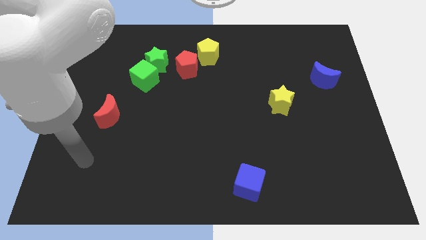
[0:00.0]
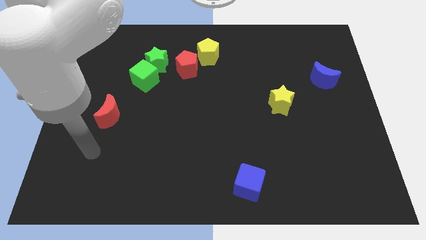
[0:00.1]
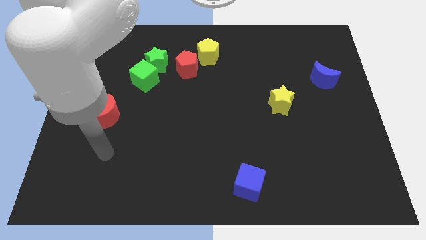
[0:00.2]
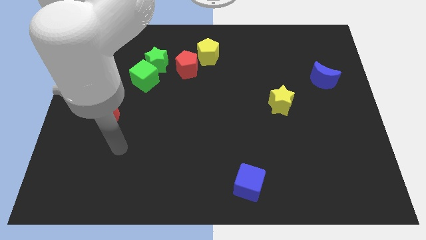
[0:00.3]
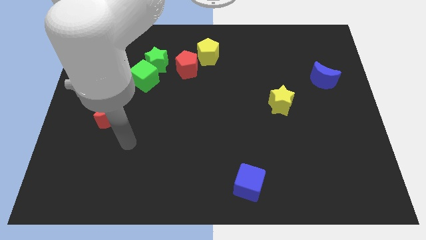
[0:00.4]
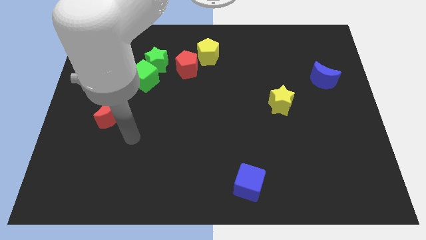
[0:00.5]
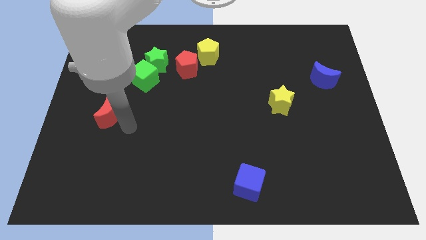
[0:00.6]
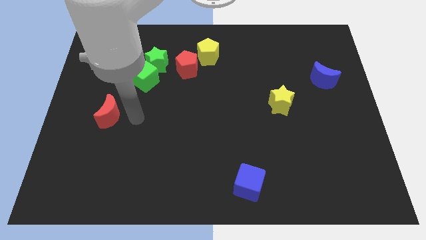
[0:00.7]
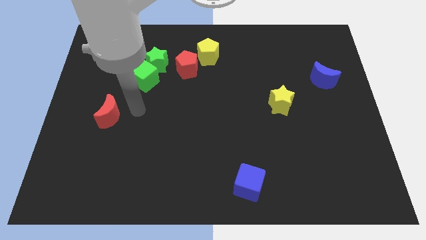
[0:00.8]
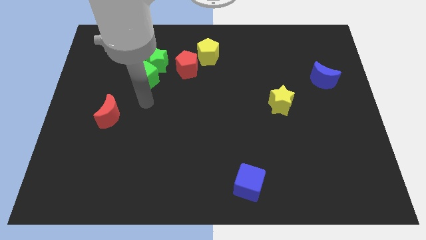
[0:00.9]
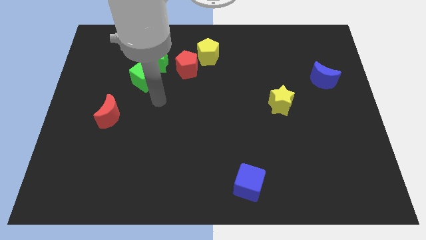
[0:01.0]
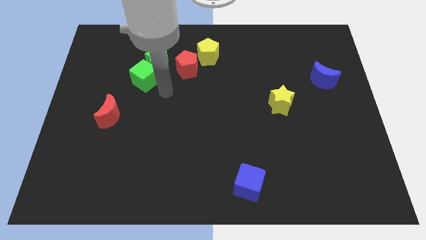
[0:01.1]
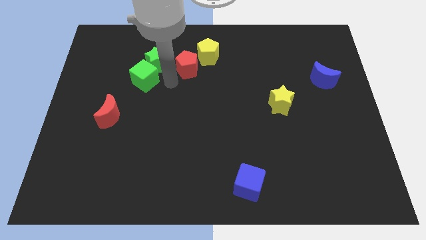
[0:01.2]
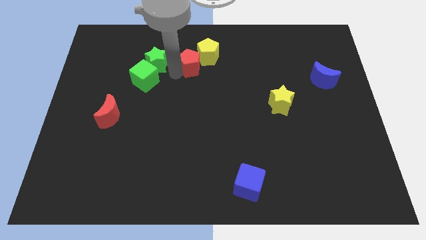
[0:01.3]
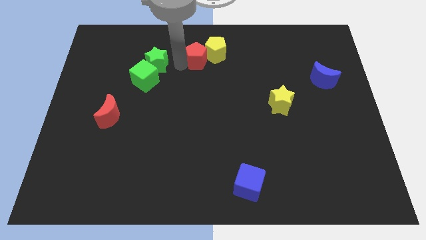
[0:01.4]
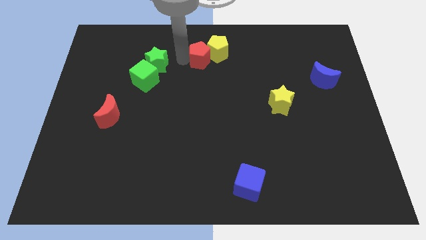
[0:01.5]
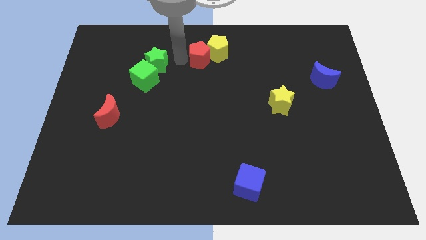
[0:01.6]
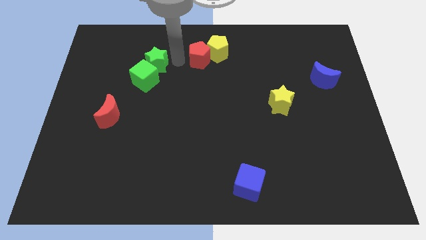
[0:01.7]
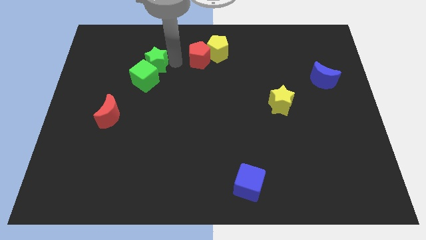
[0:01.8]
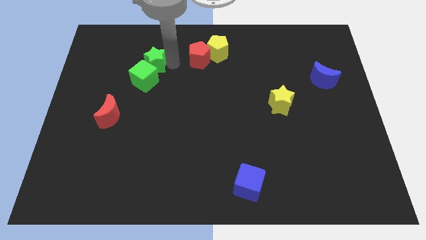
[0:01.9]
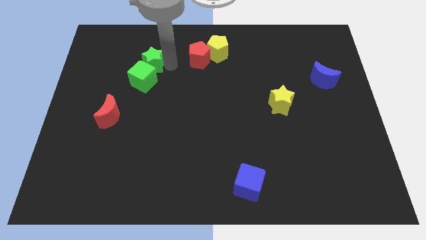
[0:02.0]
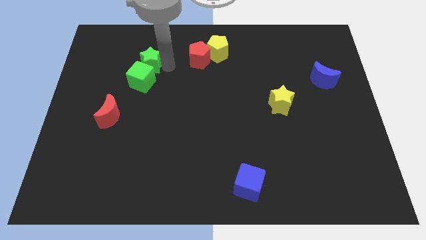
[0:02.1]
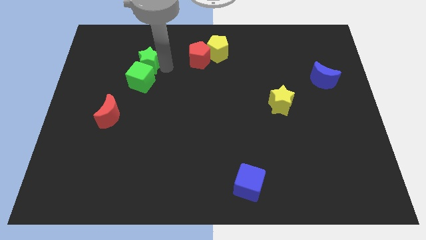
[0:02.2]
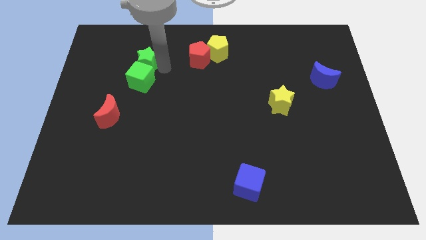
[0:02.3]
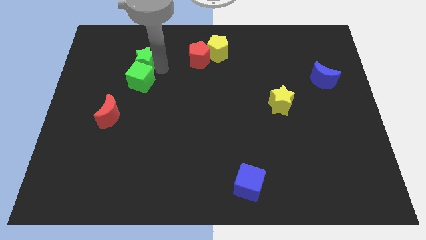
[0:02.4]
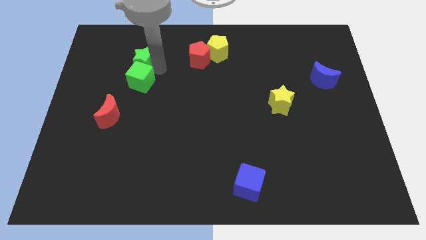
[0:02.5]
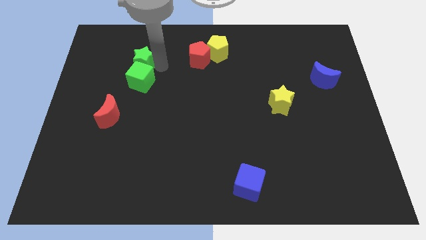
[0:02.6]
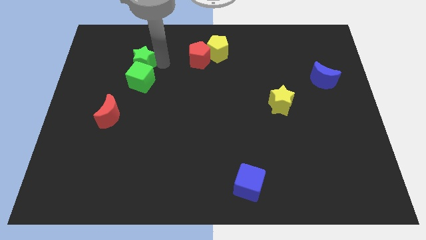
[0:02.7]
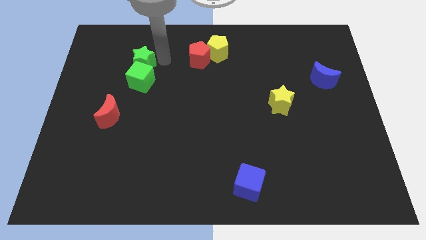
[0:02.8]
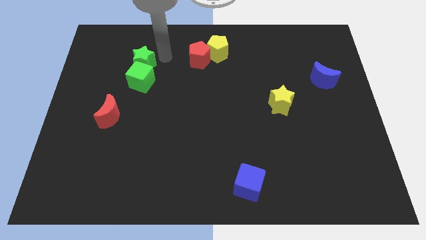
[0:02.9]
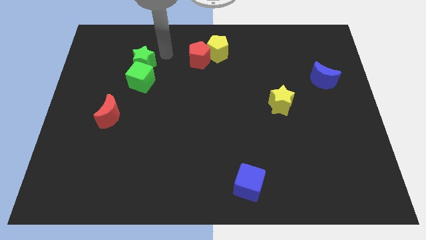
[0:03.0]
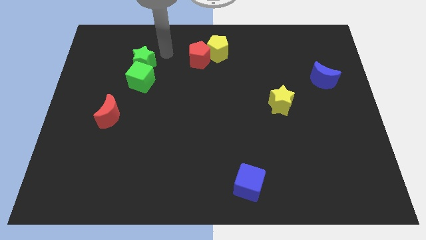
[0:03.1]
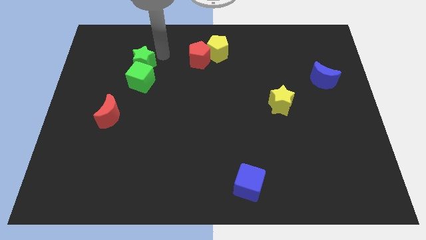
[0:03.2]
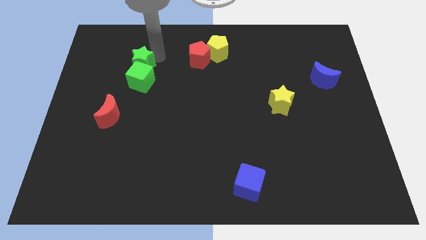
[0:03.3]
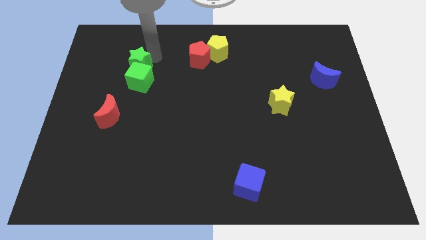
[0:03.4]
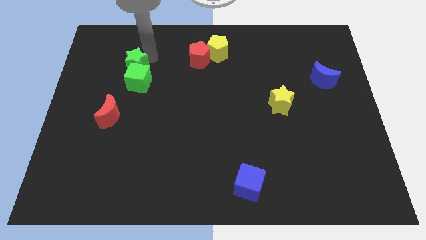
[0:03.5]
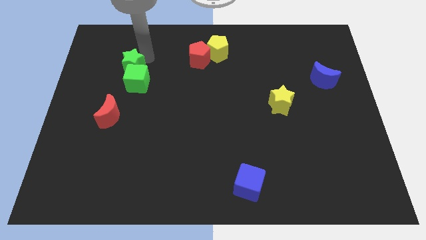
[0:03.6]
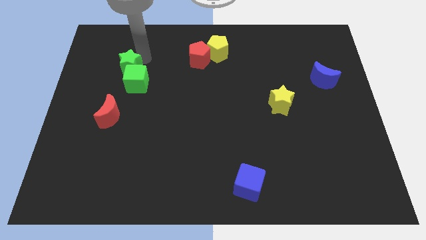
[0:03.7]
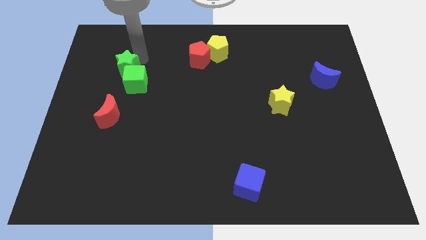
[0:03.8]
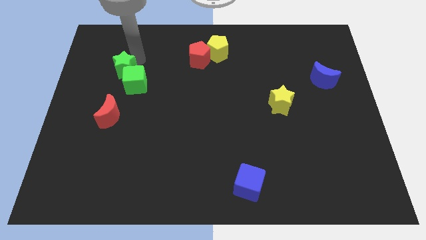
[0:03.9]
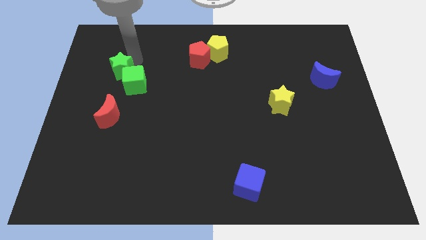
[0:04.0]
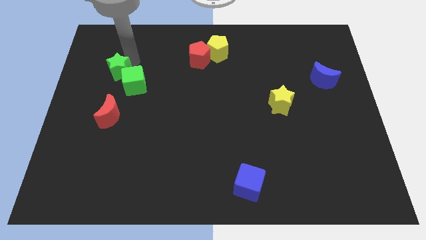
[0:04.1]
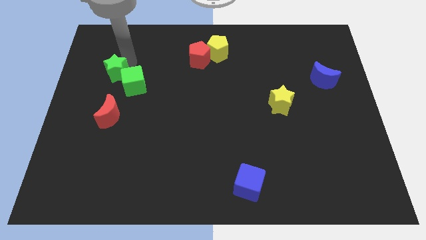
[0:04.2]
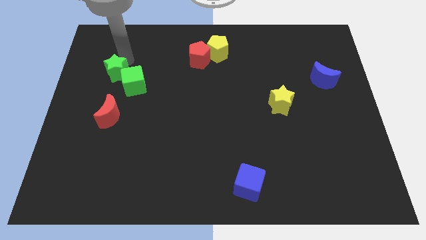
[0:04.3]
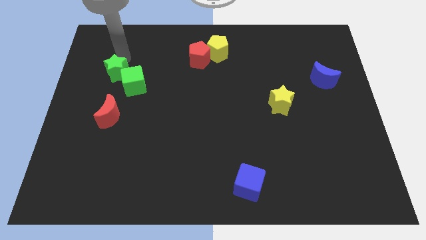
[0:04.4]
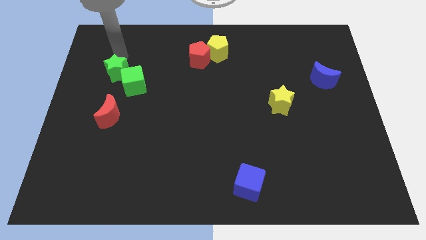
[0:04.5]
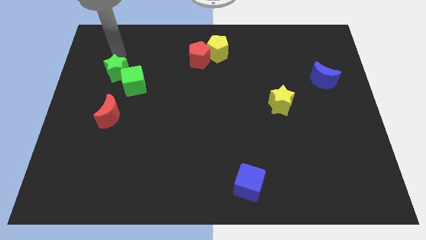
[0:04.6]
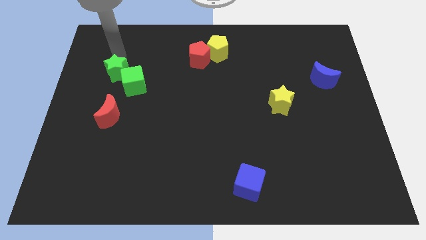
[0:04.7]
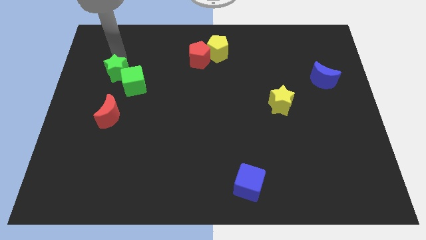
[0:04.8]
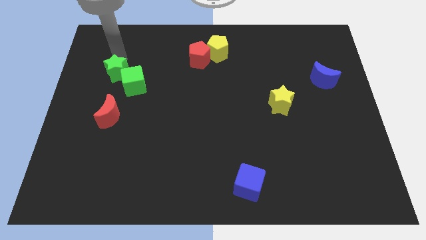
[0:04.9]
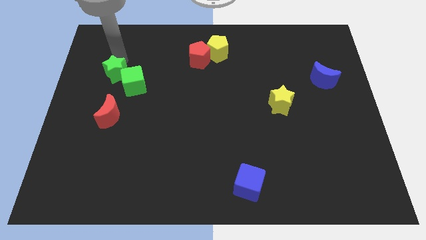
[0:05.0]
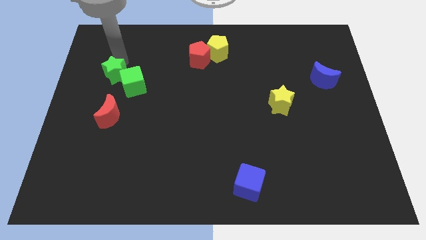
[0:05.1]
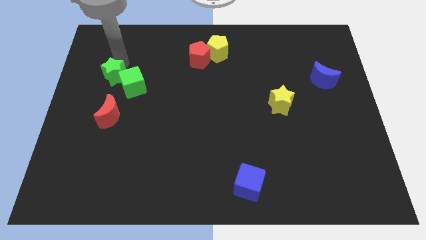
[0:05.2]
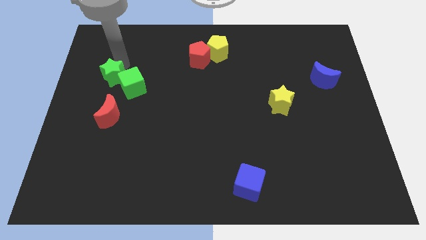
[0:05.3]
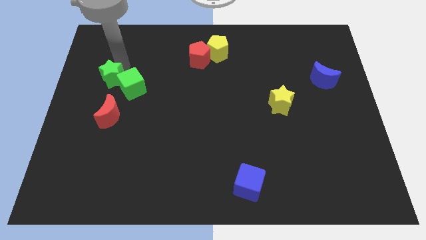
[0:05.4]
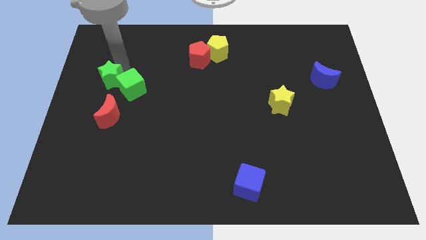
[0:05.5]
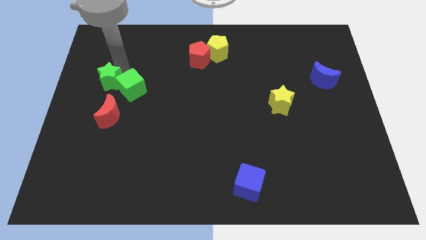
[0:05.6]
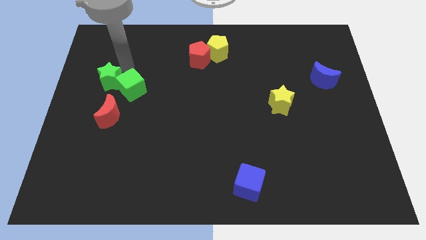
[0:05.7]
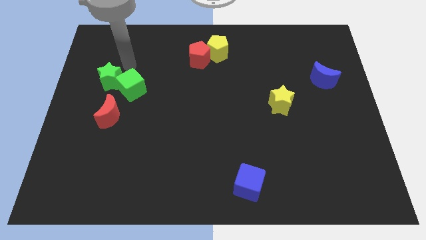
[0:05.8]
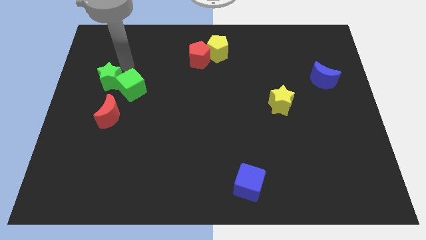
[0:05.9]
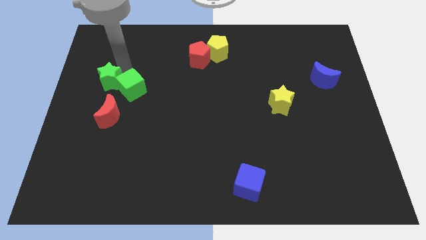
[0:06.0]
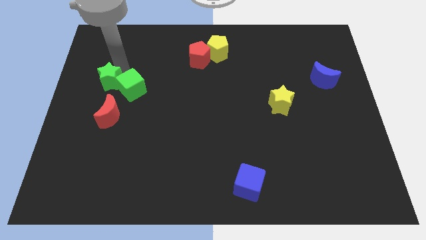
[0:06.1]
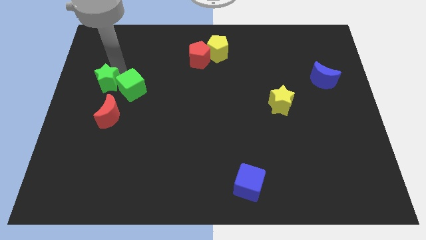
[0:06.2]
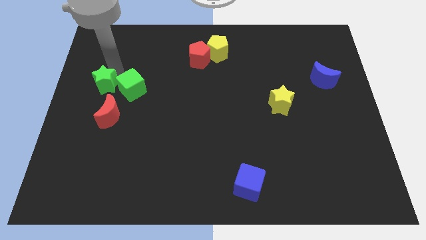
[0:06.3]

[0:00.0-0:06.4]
push the green star diagonally up and to the left of the red moon
